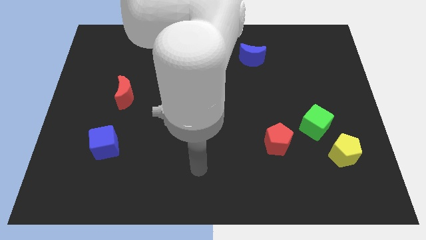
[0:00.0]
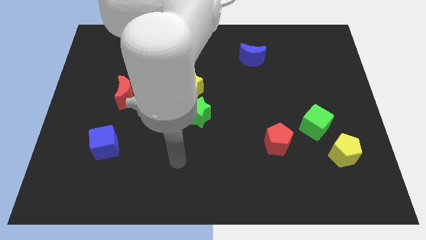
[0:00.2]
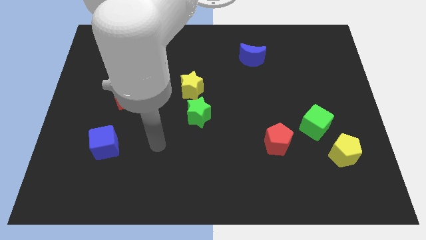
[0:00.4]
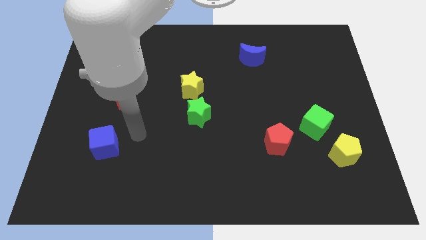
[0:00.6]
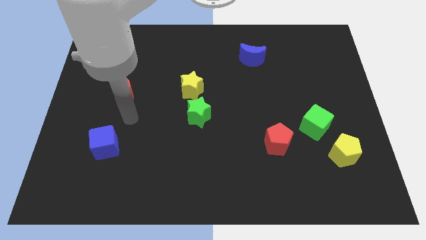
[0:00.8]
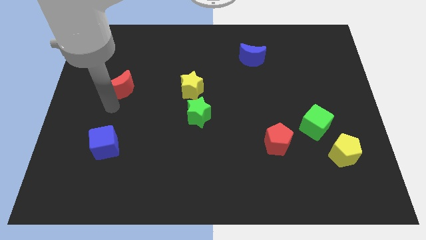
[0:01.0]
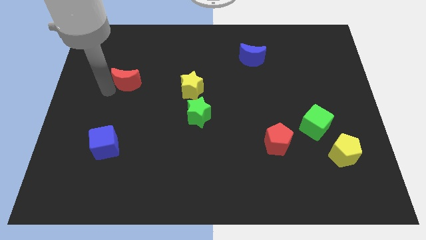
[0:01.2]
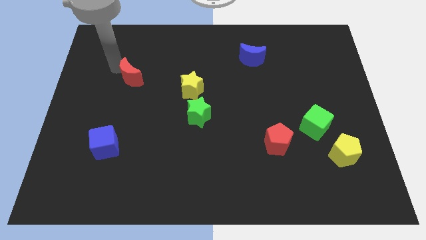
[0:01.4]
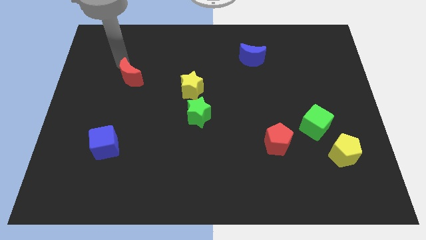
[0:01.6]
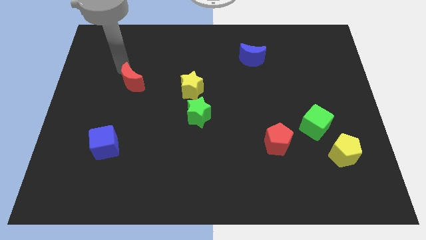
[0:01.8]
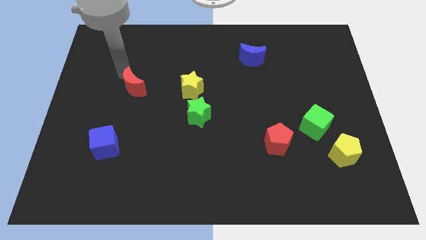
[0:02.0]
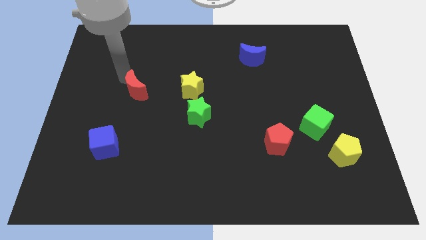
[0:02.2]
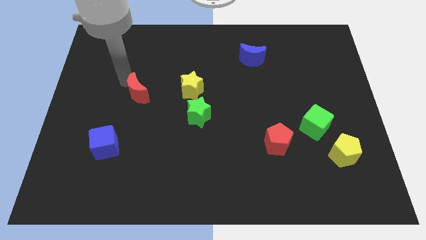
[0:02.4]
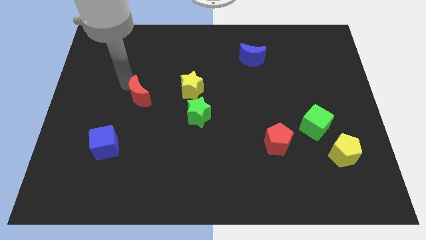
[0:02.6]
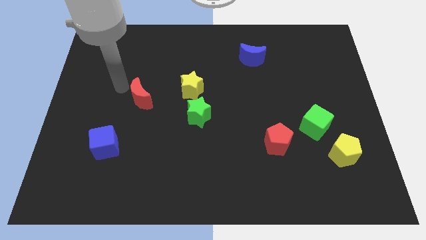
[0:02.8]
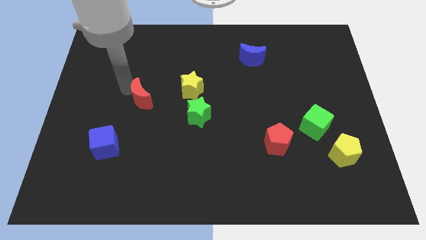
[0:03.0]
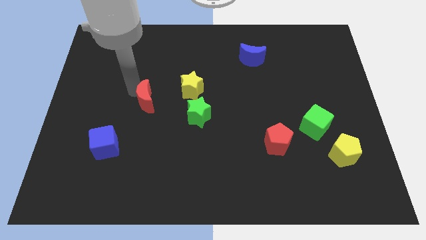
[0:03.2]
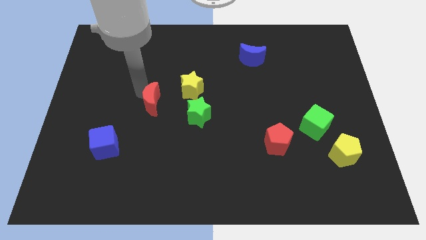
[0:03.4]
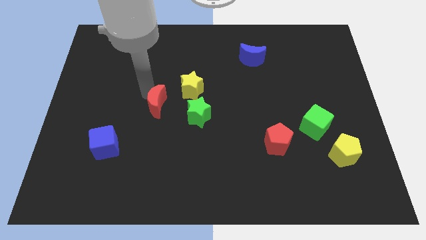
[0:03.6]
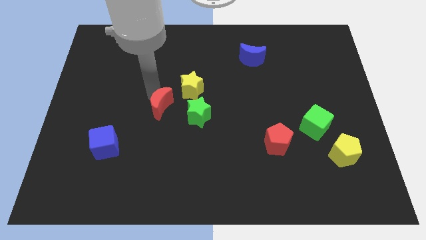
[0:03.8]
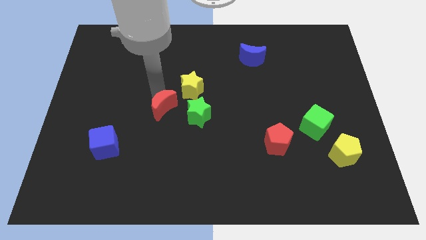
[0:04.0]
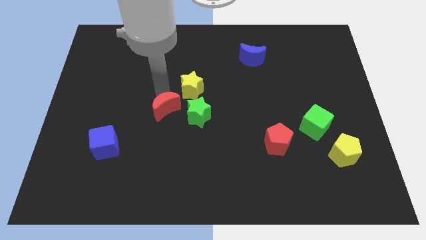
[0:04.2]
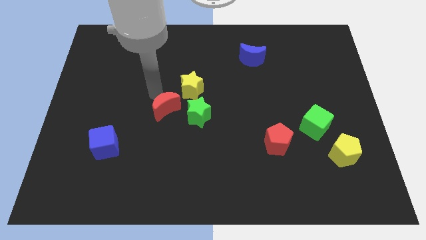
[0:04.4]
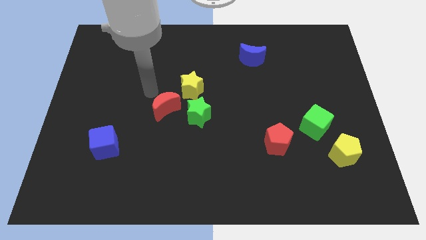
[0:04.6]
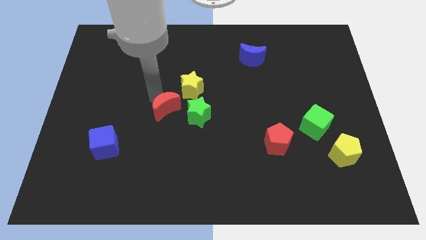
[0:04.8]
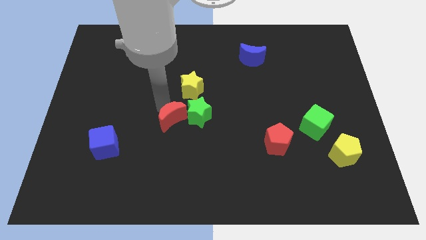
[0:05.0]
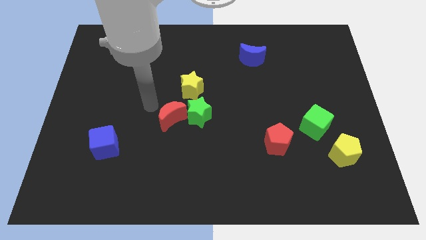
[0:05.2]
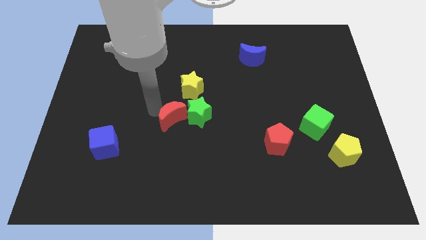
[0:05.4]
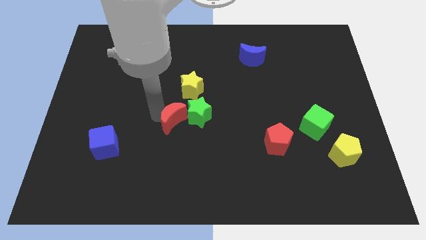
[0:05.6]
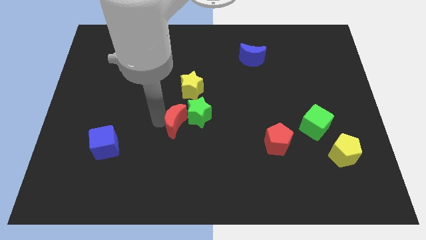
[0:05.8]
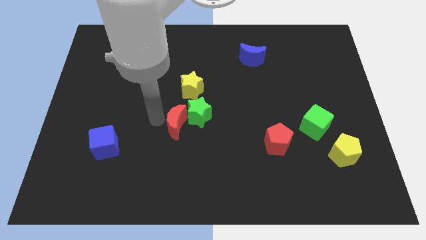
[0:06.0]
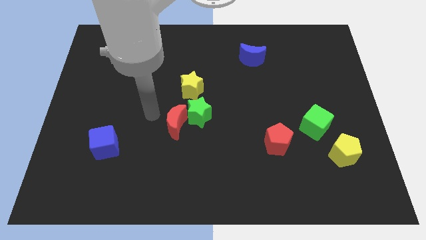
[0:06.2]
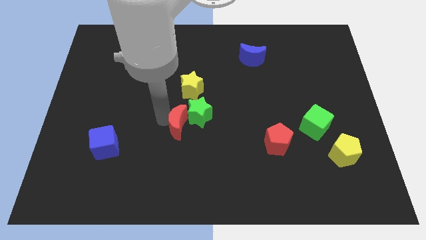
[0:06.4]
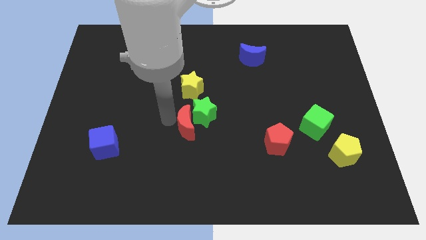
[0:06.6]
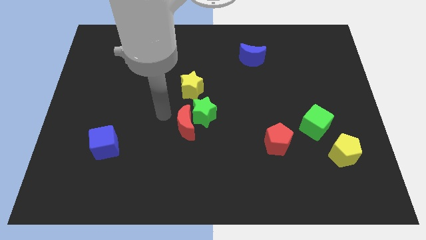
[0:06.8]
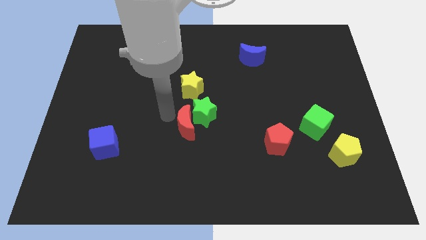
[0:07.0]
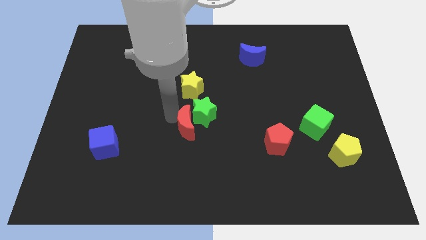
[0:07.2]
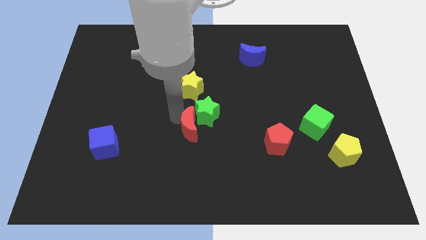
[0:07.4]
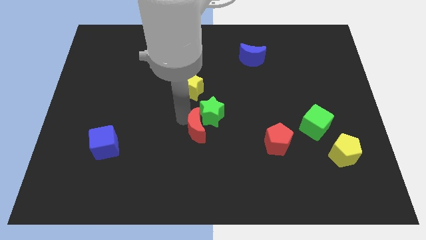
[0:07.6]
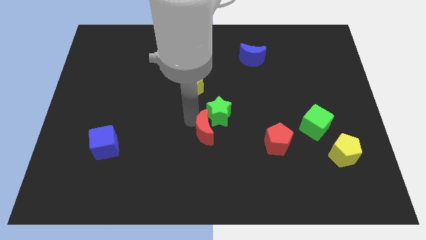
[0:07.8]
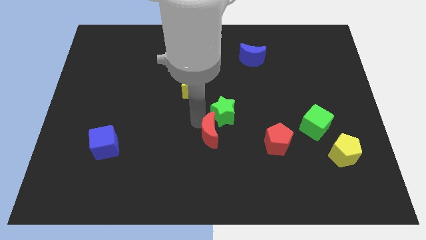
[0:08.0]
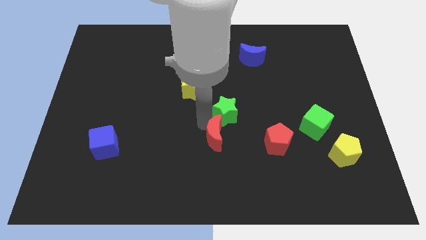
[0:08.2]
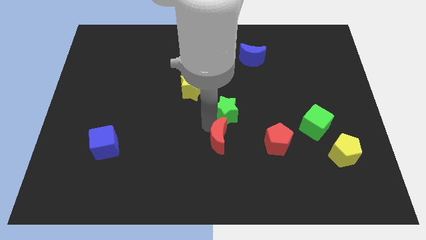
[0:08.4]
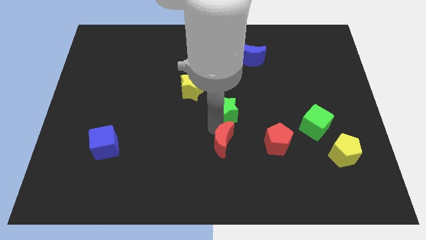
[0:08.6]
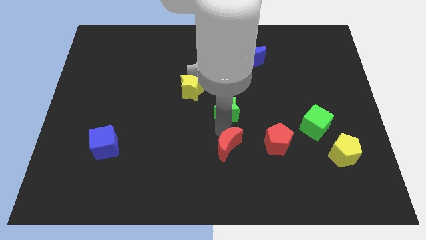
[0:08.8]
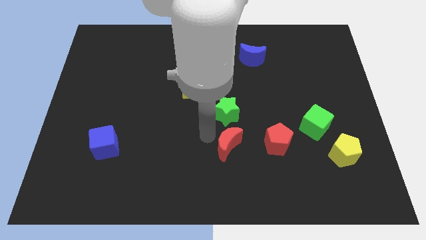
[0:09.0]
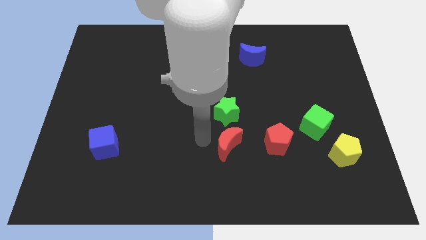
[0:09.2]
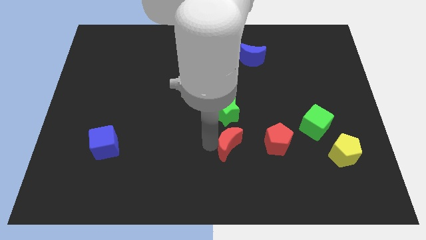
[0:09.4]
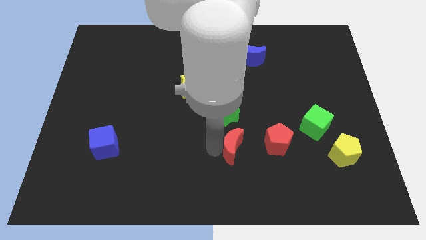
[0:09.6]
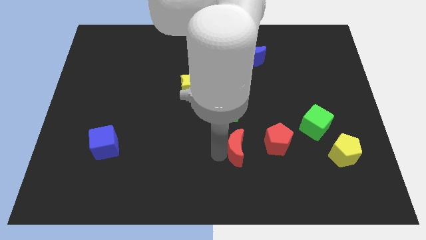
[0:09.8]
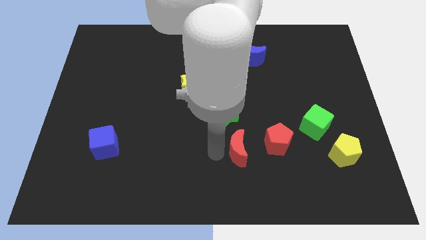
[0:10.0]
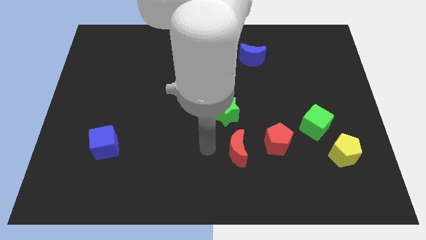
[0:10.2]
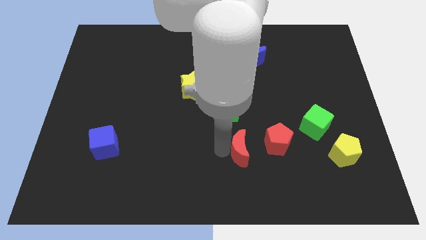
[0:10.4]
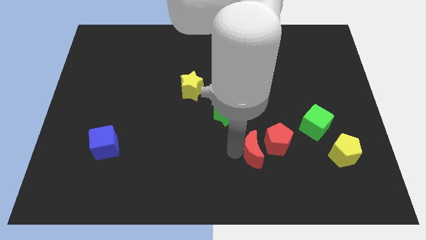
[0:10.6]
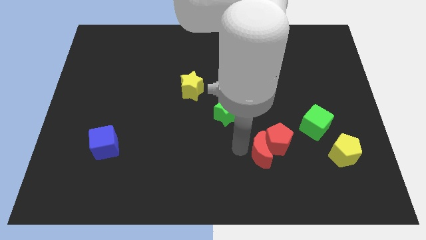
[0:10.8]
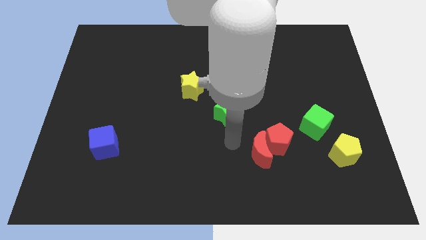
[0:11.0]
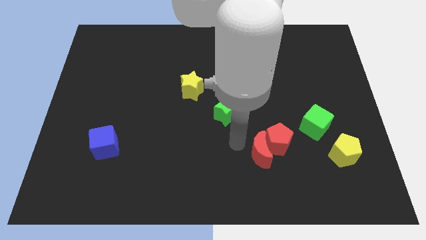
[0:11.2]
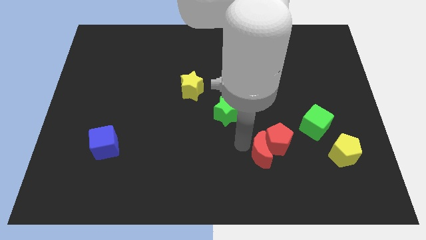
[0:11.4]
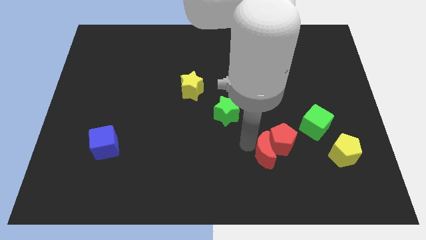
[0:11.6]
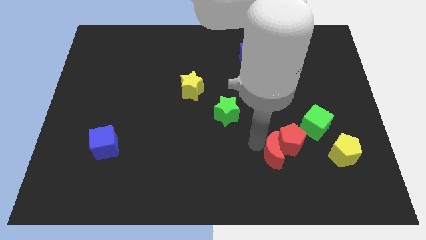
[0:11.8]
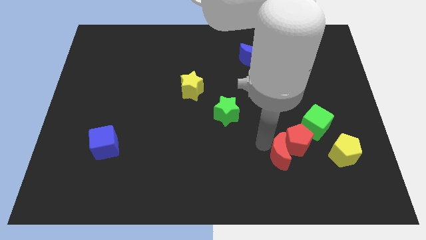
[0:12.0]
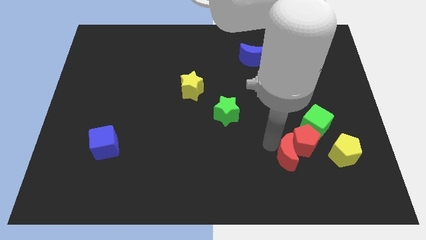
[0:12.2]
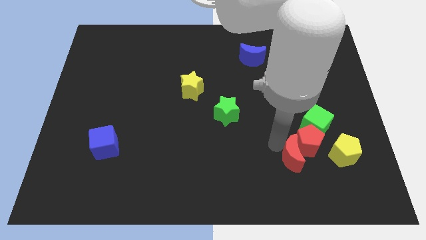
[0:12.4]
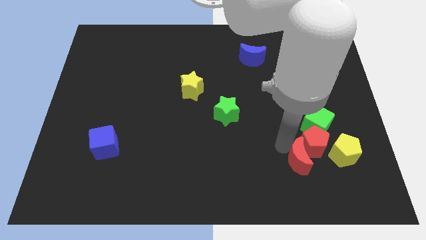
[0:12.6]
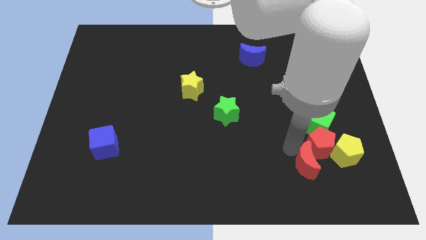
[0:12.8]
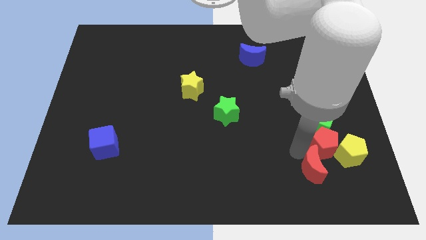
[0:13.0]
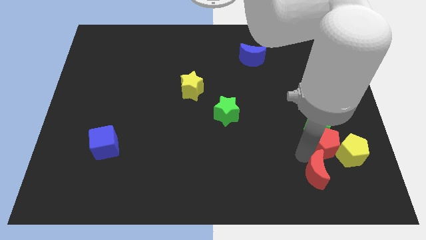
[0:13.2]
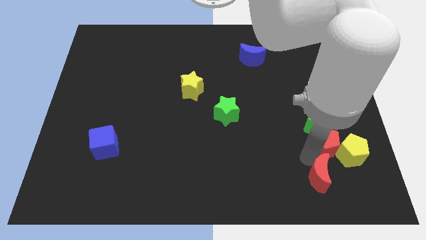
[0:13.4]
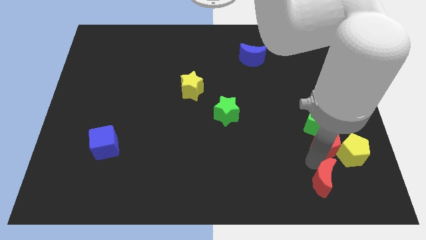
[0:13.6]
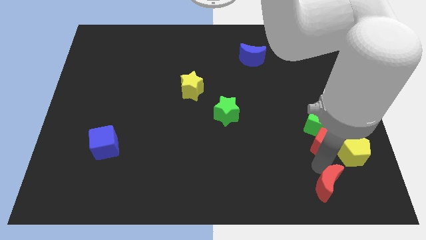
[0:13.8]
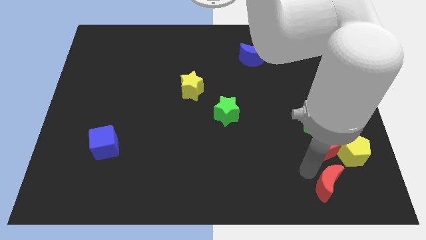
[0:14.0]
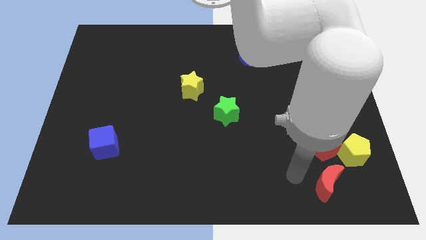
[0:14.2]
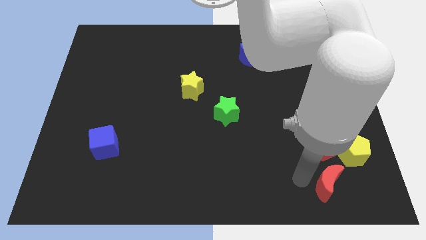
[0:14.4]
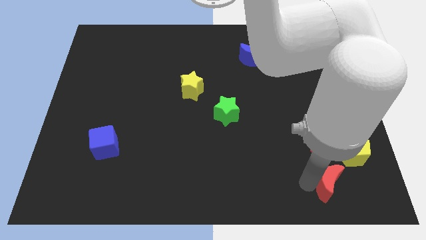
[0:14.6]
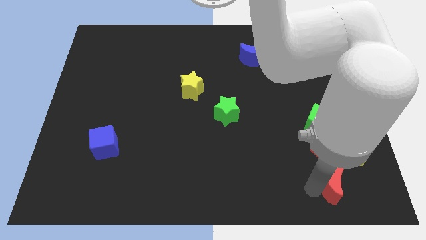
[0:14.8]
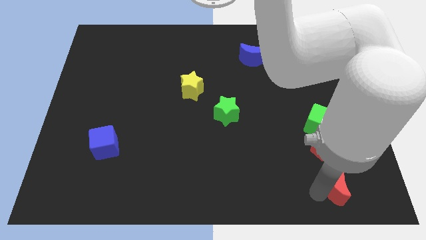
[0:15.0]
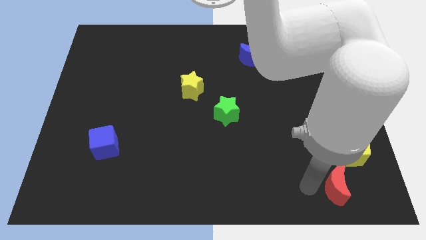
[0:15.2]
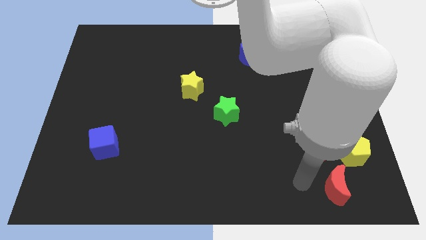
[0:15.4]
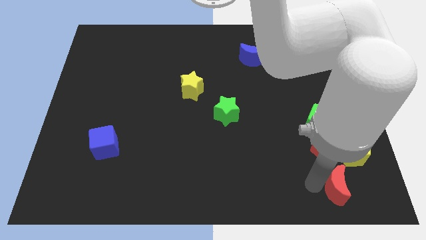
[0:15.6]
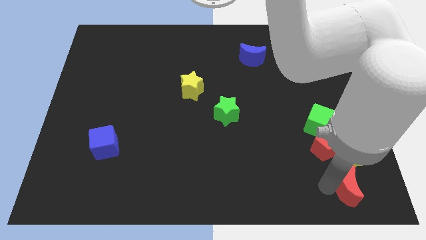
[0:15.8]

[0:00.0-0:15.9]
move the red moon to the bottom right corner
